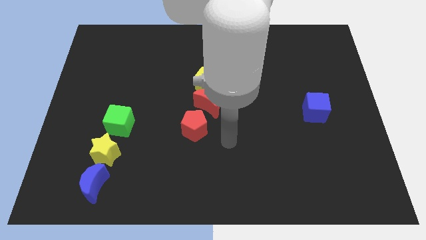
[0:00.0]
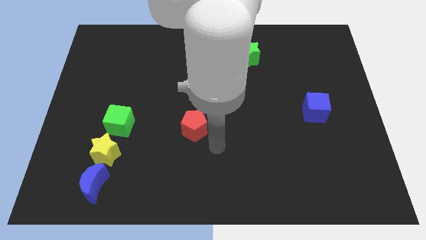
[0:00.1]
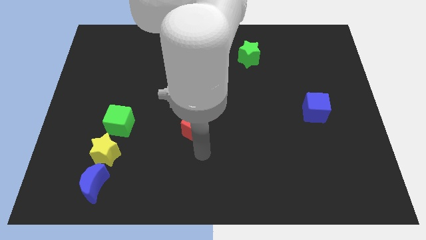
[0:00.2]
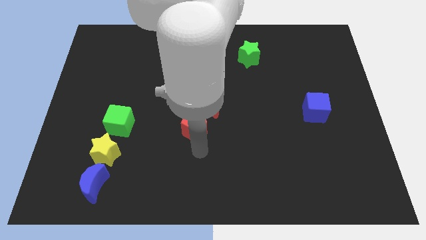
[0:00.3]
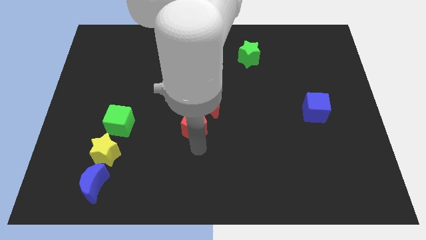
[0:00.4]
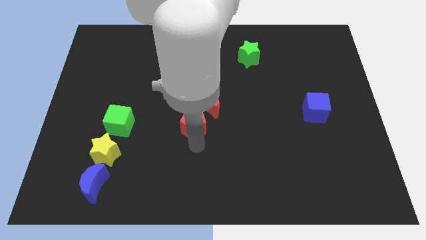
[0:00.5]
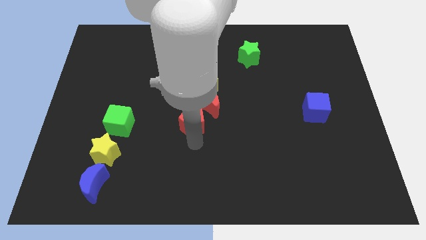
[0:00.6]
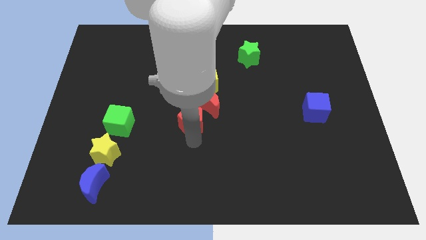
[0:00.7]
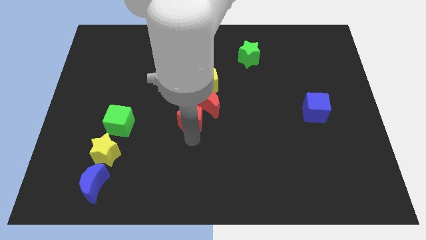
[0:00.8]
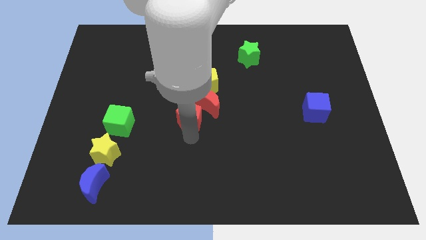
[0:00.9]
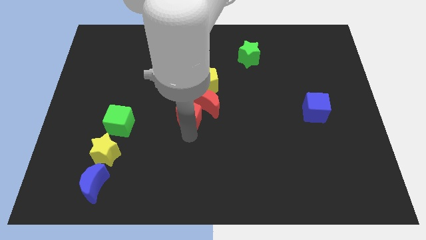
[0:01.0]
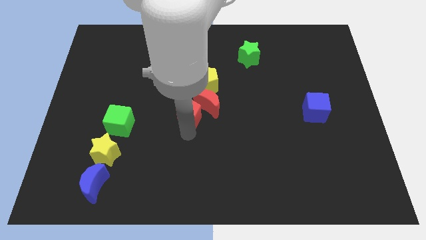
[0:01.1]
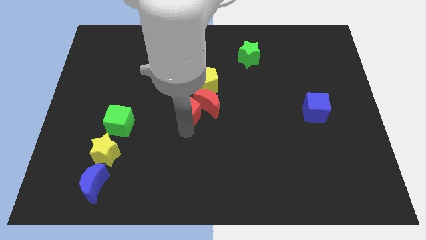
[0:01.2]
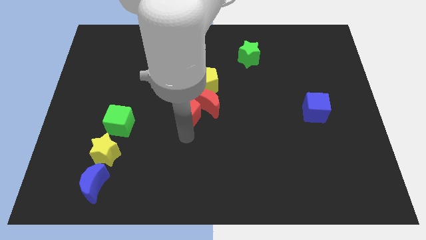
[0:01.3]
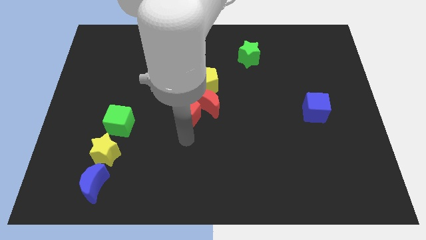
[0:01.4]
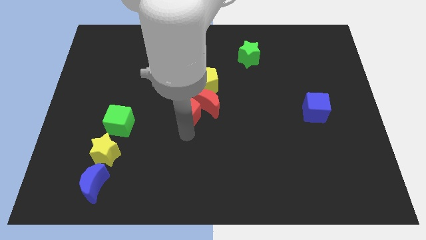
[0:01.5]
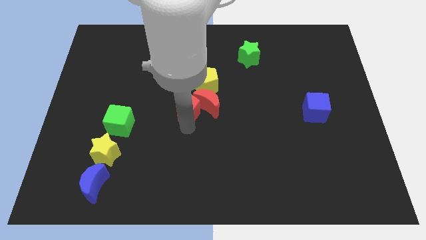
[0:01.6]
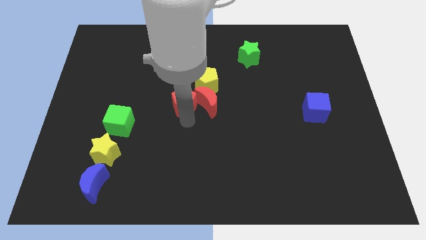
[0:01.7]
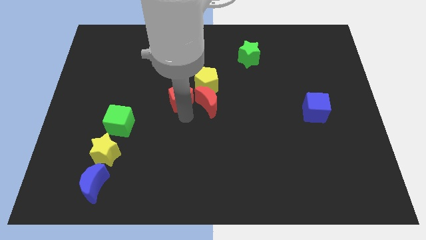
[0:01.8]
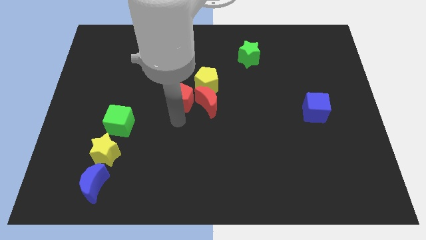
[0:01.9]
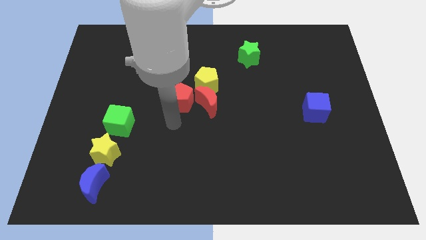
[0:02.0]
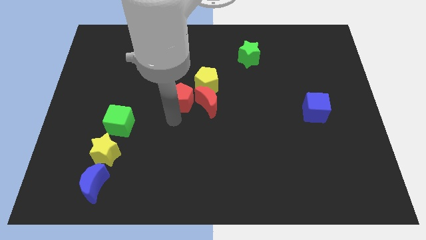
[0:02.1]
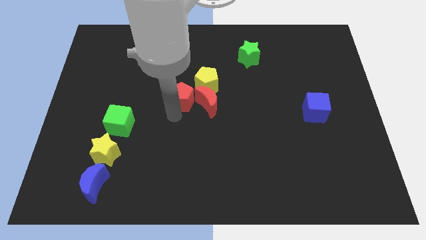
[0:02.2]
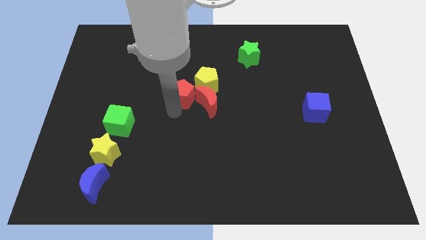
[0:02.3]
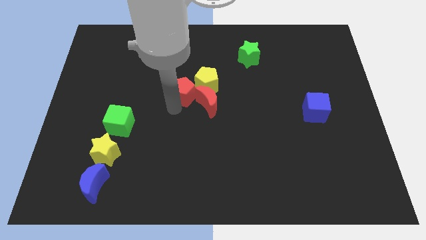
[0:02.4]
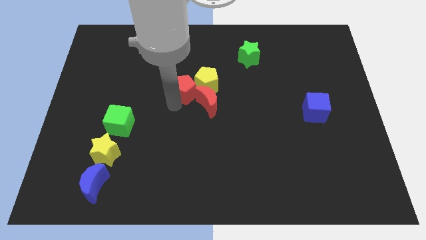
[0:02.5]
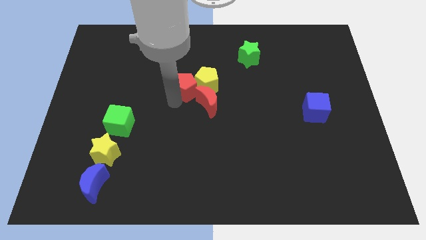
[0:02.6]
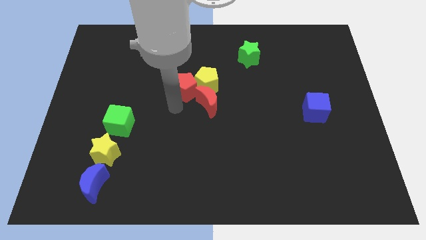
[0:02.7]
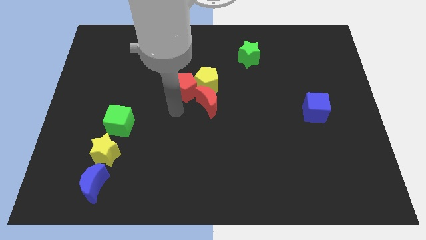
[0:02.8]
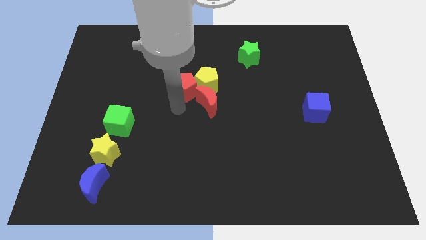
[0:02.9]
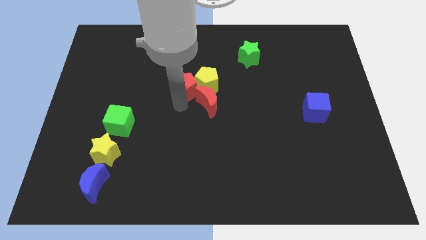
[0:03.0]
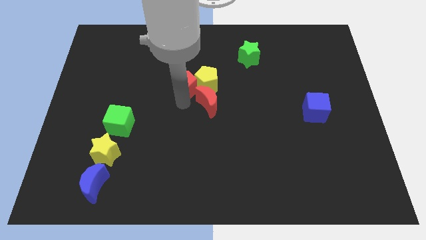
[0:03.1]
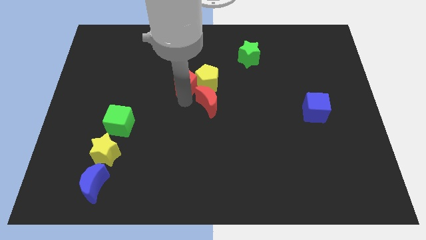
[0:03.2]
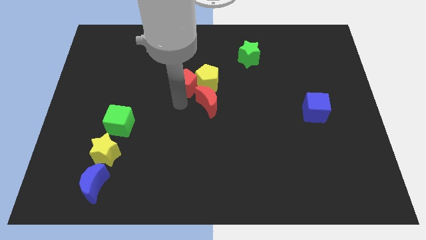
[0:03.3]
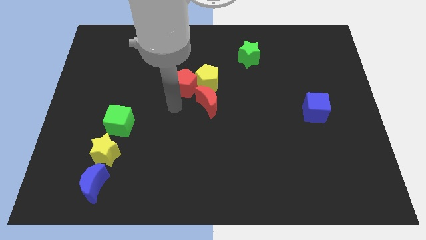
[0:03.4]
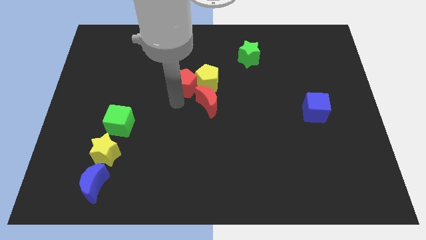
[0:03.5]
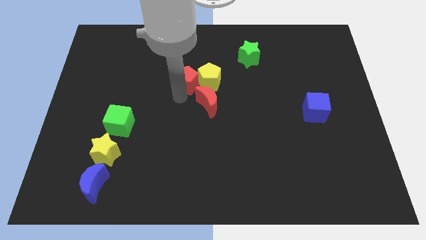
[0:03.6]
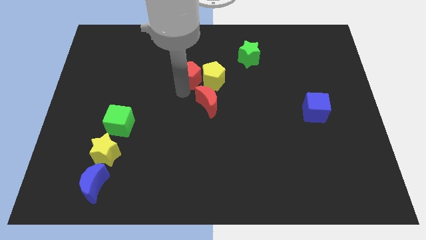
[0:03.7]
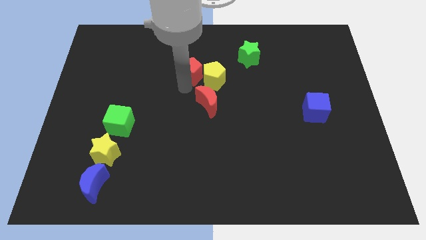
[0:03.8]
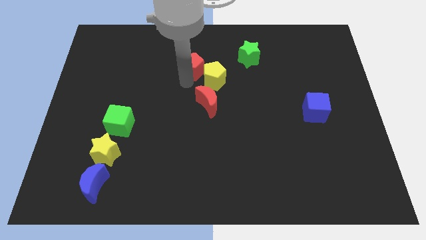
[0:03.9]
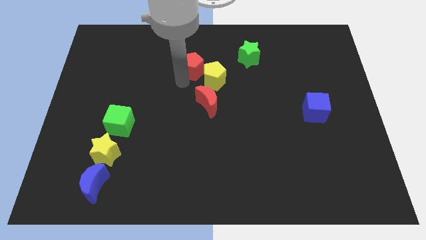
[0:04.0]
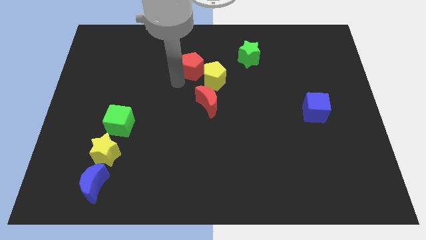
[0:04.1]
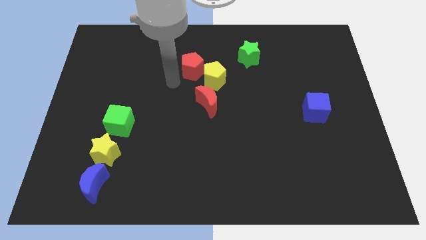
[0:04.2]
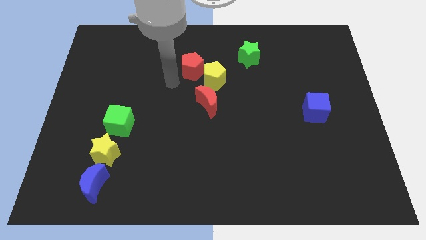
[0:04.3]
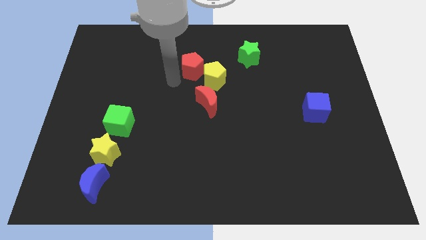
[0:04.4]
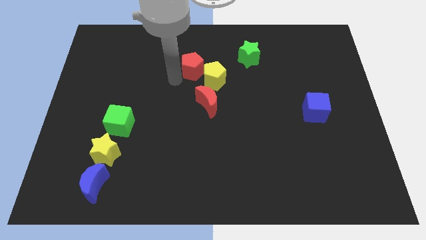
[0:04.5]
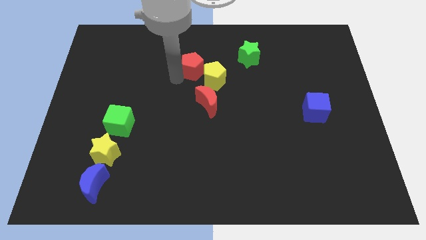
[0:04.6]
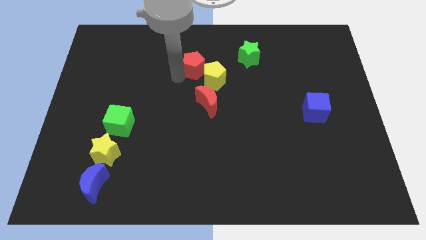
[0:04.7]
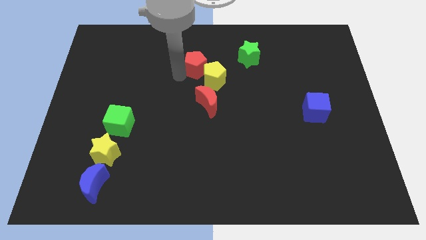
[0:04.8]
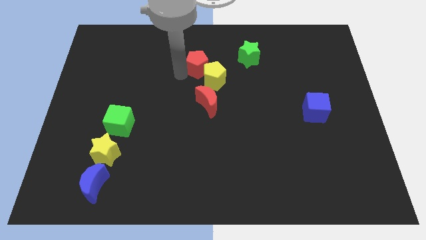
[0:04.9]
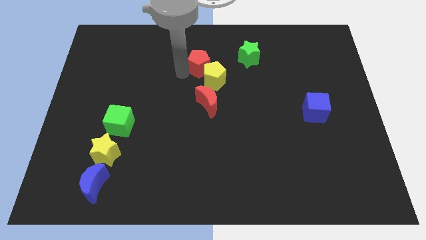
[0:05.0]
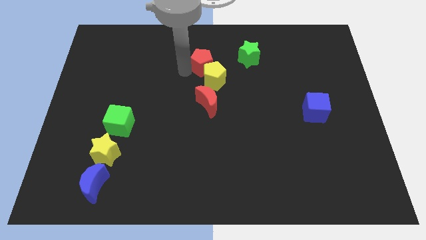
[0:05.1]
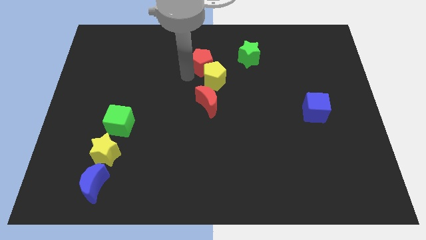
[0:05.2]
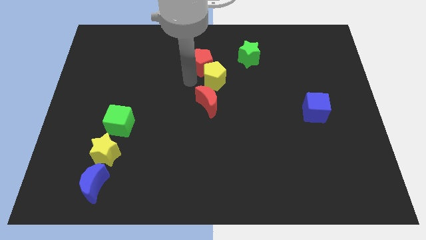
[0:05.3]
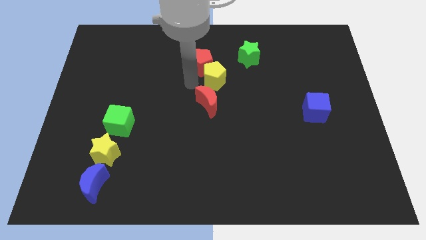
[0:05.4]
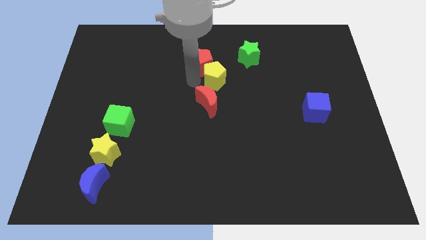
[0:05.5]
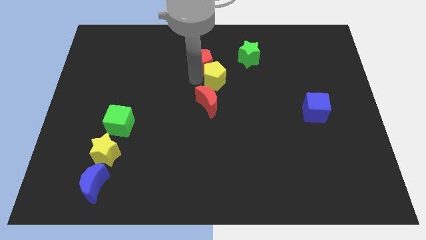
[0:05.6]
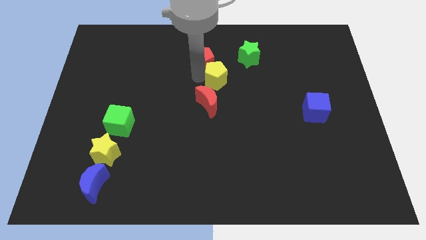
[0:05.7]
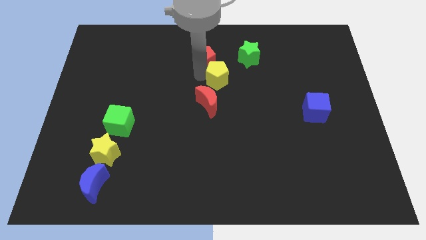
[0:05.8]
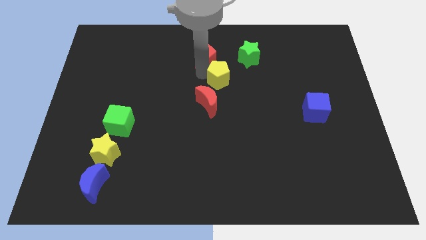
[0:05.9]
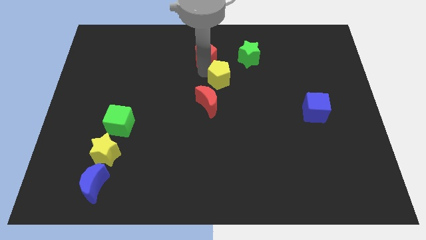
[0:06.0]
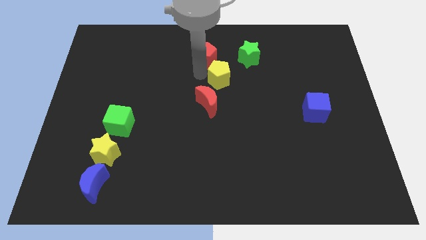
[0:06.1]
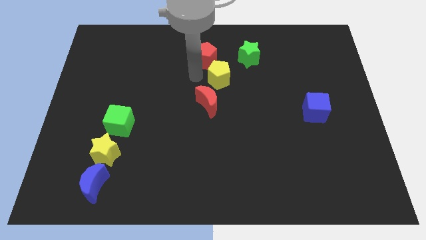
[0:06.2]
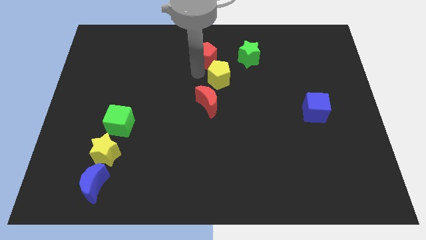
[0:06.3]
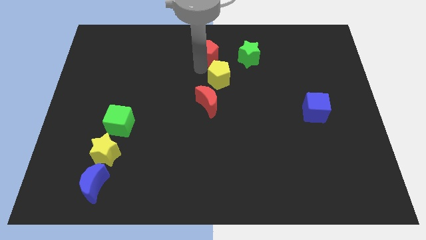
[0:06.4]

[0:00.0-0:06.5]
move the red pentagon to the top

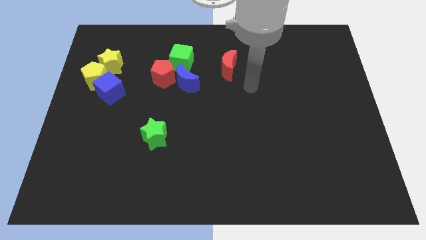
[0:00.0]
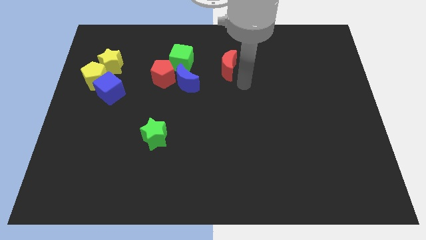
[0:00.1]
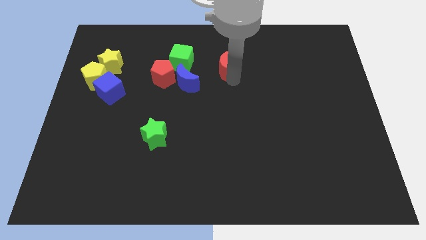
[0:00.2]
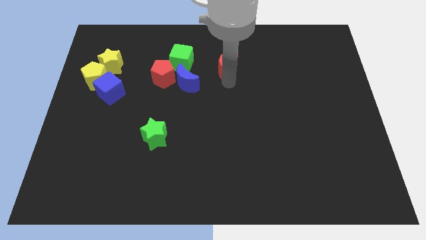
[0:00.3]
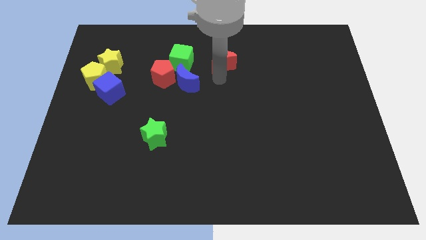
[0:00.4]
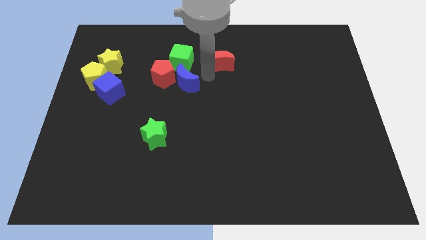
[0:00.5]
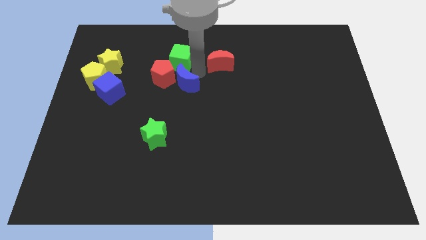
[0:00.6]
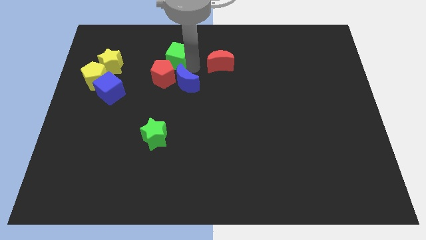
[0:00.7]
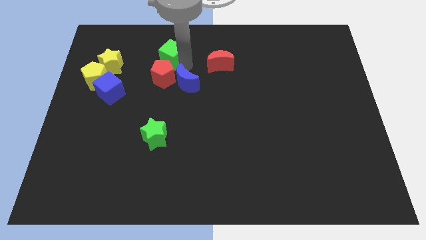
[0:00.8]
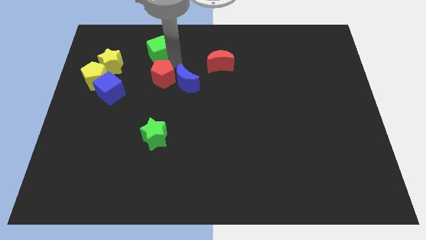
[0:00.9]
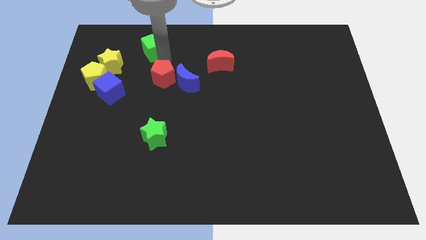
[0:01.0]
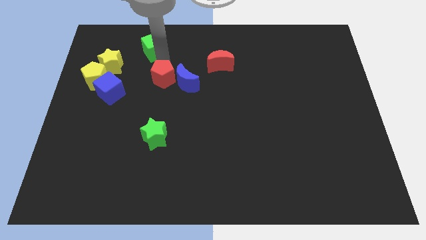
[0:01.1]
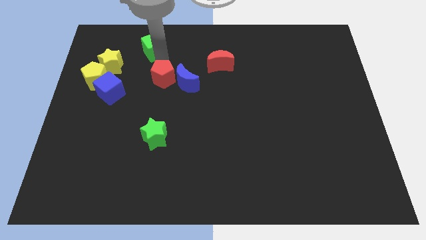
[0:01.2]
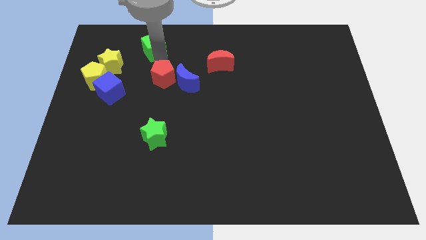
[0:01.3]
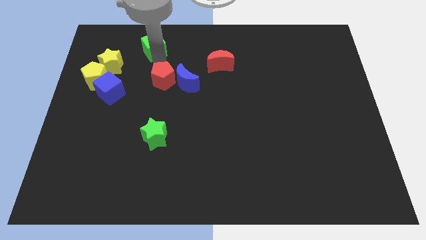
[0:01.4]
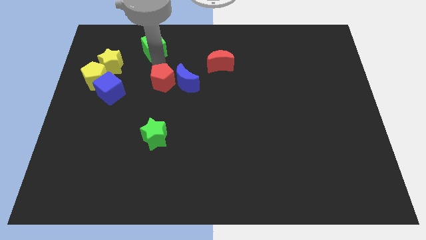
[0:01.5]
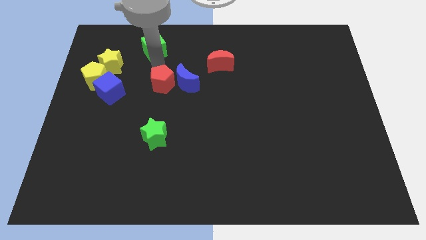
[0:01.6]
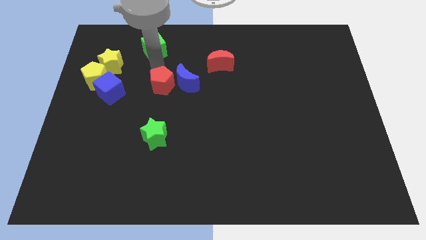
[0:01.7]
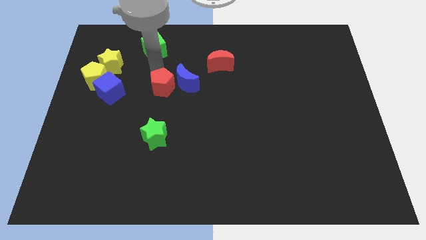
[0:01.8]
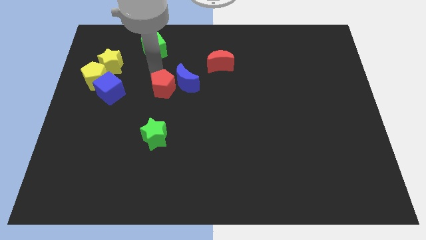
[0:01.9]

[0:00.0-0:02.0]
put the red pentagon to the middle
